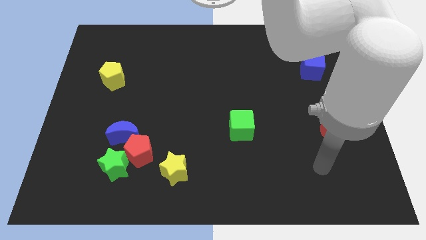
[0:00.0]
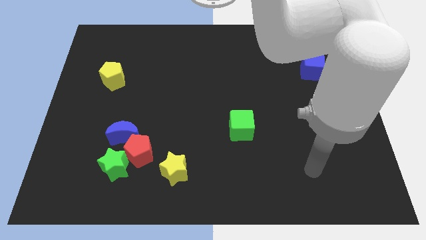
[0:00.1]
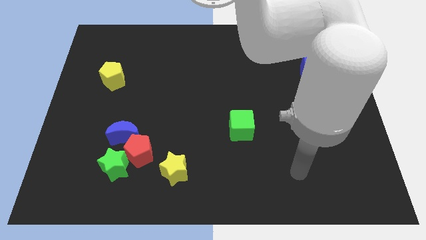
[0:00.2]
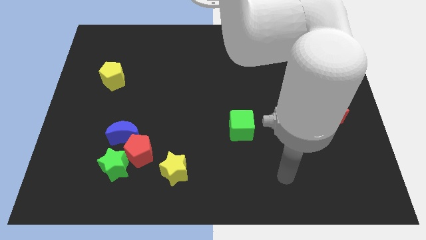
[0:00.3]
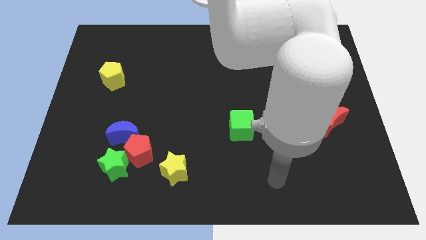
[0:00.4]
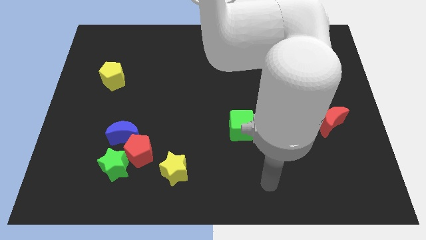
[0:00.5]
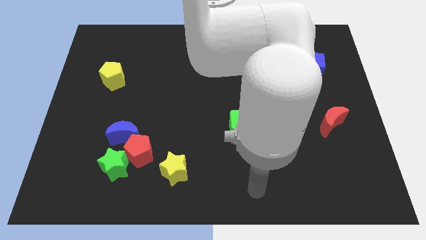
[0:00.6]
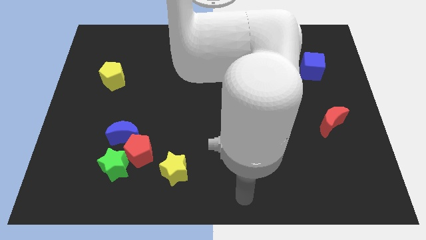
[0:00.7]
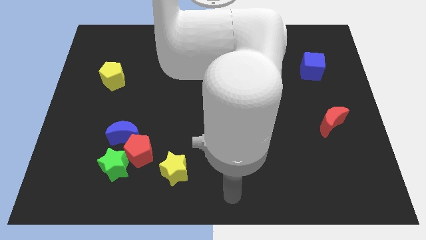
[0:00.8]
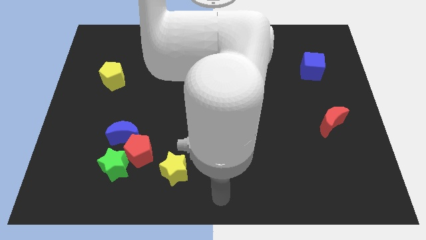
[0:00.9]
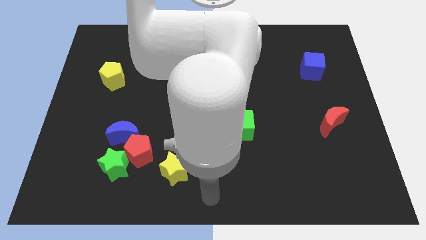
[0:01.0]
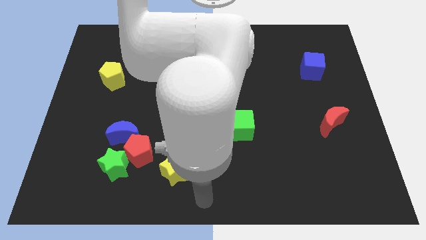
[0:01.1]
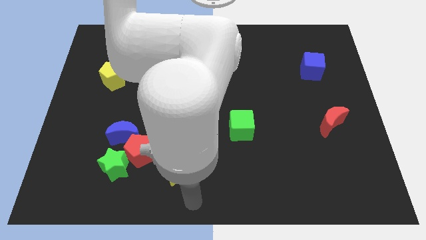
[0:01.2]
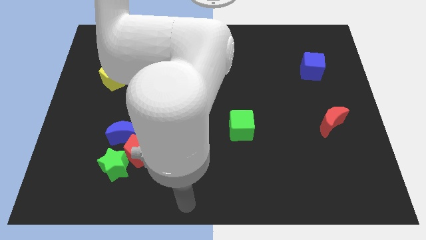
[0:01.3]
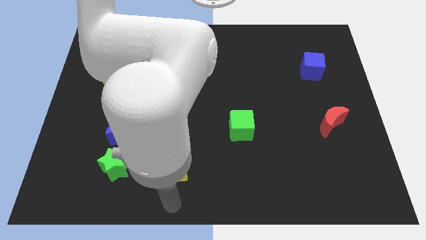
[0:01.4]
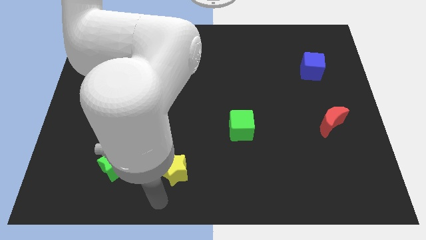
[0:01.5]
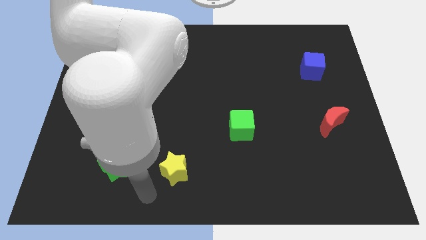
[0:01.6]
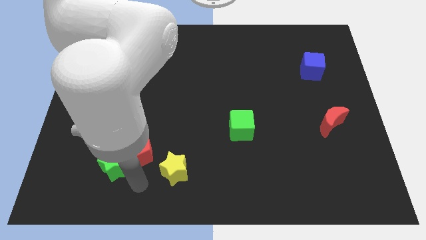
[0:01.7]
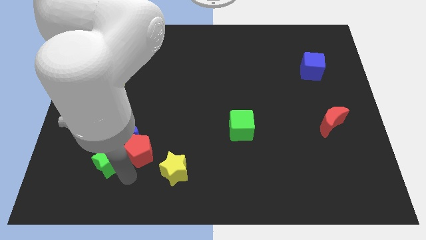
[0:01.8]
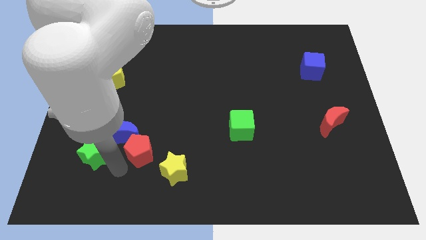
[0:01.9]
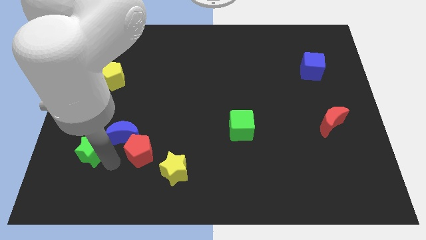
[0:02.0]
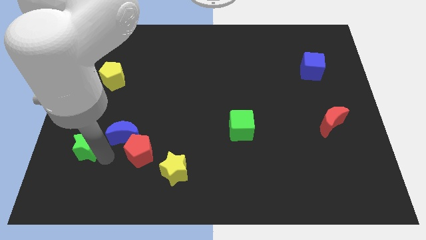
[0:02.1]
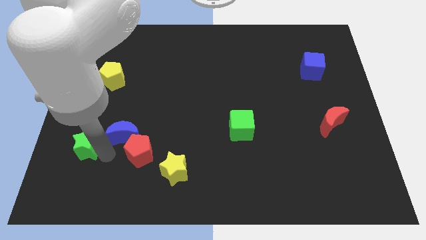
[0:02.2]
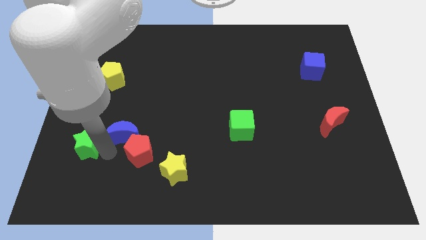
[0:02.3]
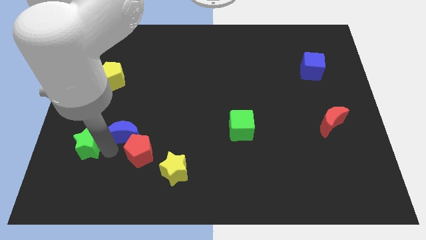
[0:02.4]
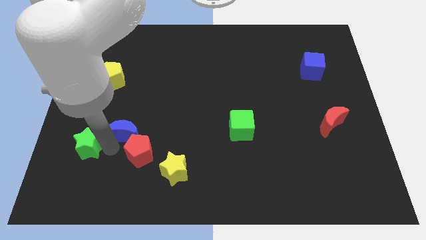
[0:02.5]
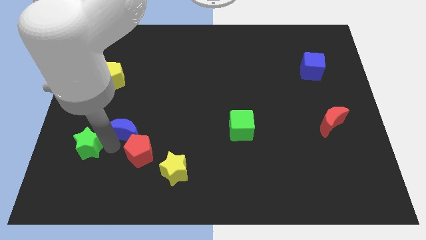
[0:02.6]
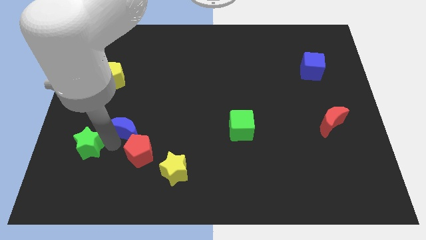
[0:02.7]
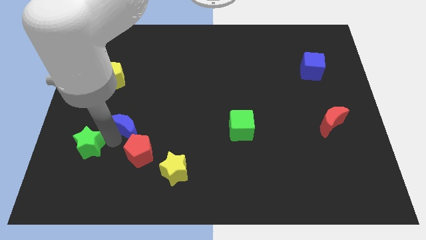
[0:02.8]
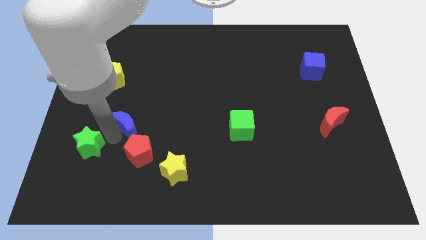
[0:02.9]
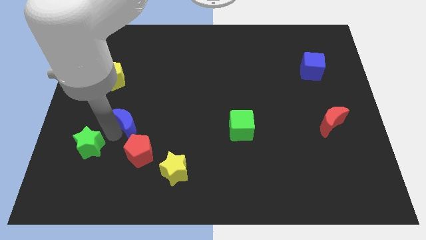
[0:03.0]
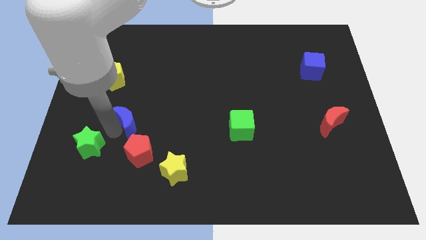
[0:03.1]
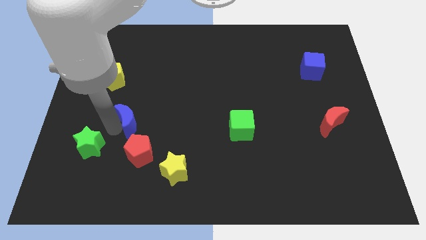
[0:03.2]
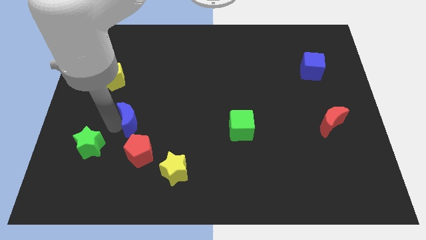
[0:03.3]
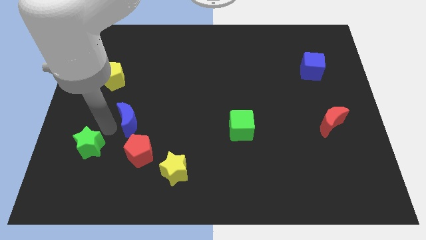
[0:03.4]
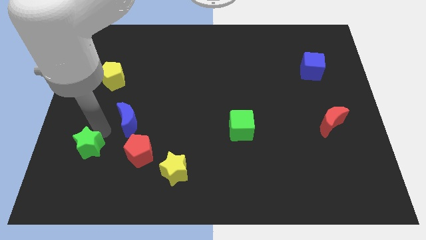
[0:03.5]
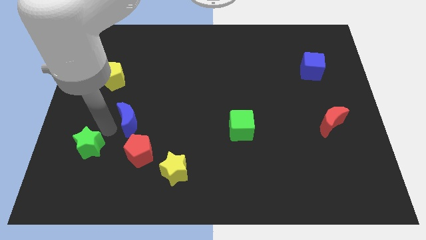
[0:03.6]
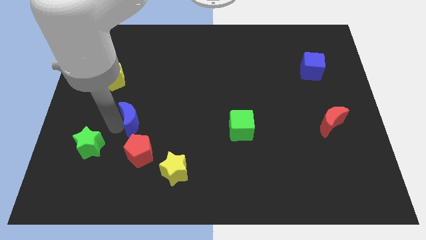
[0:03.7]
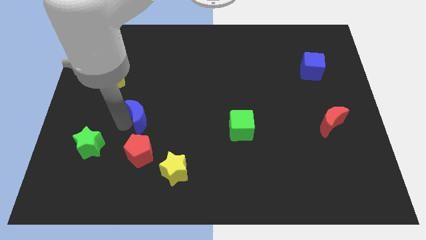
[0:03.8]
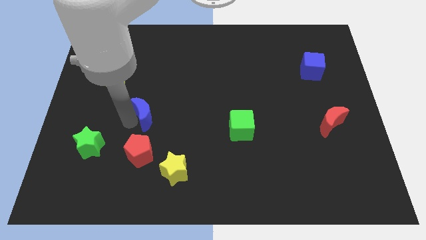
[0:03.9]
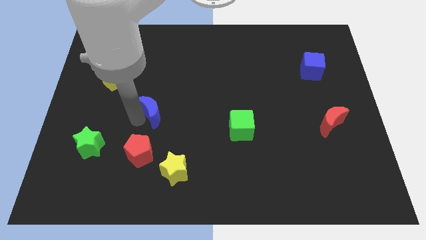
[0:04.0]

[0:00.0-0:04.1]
slide the blue moon upwards and to the right diagonally a little bit

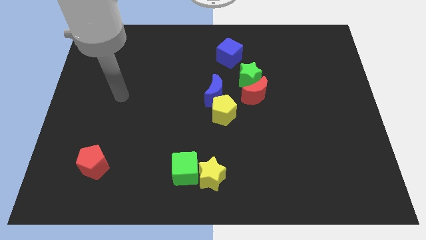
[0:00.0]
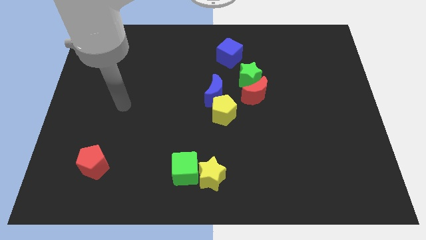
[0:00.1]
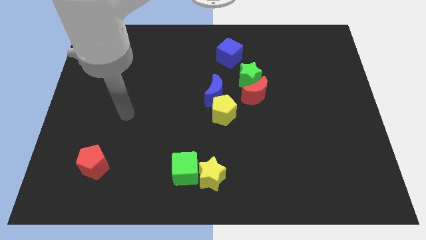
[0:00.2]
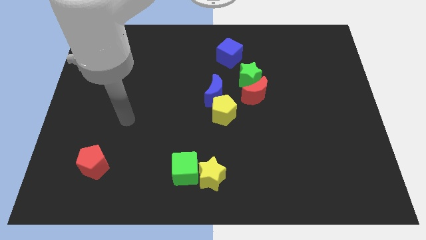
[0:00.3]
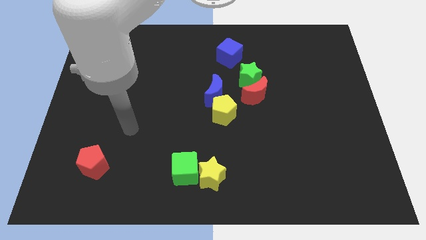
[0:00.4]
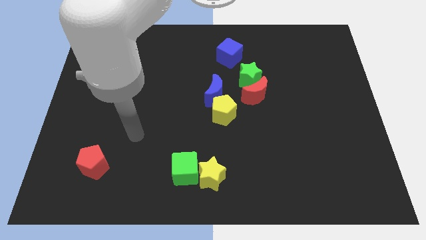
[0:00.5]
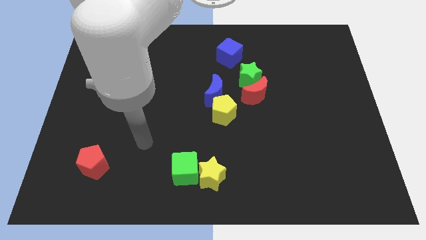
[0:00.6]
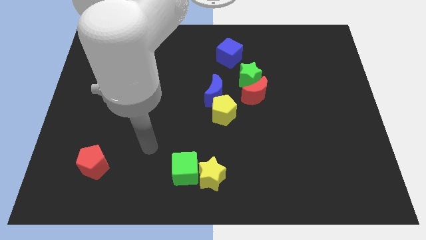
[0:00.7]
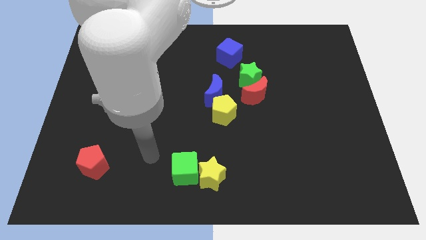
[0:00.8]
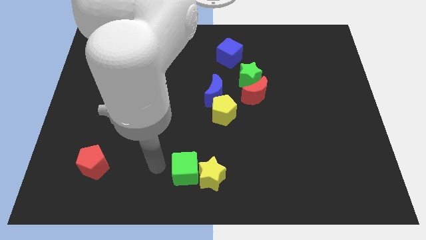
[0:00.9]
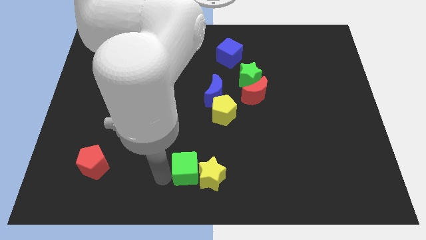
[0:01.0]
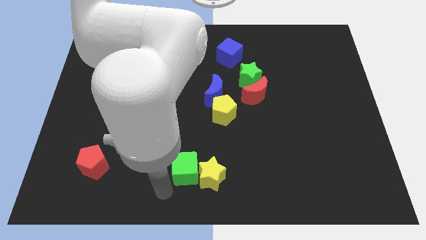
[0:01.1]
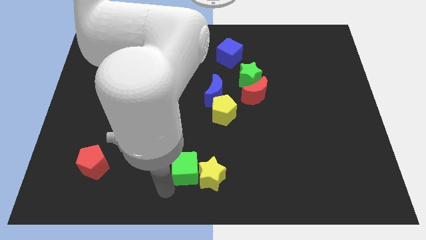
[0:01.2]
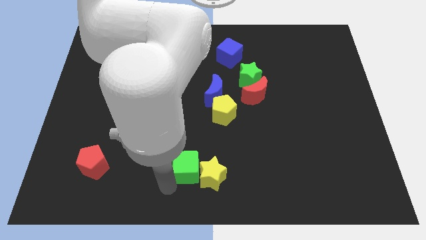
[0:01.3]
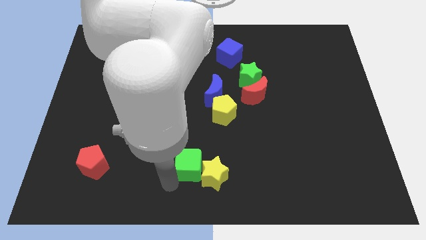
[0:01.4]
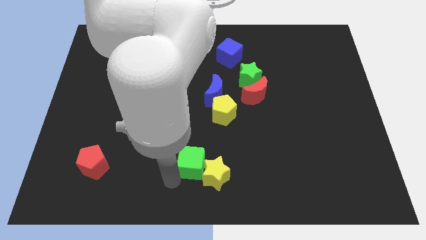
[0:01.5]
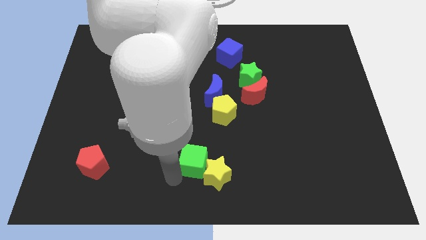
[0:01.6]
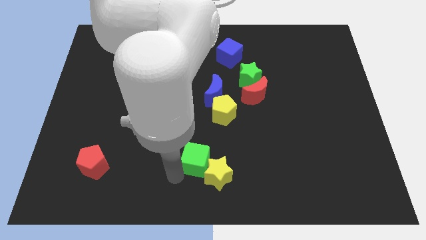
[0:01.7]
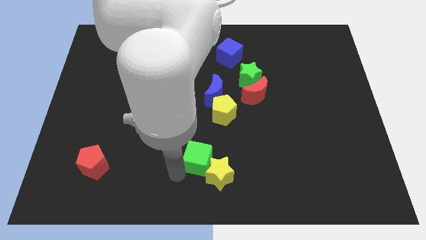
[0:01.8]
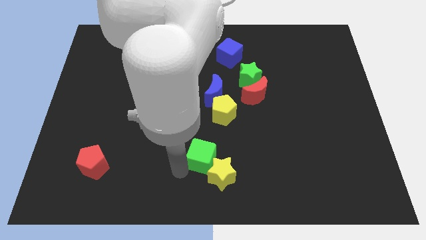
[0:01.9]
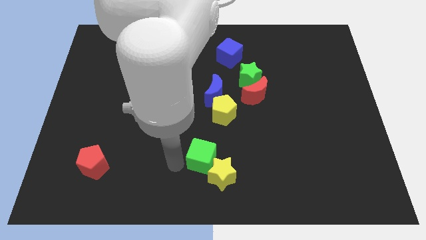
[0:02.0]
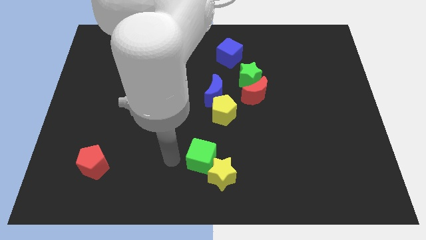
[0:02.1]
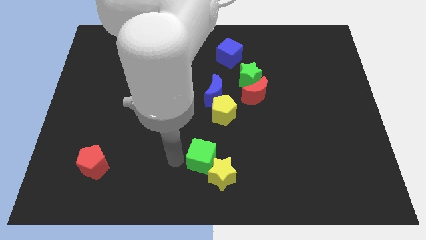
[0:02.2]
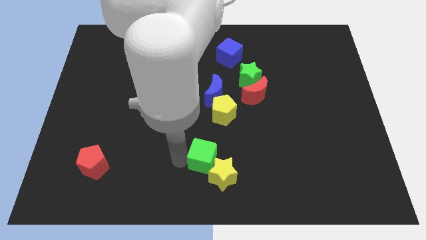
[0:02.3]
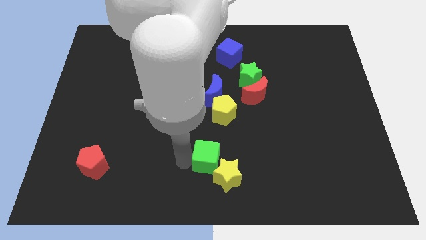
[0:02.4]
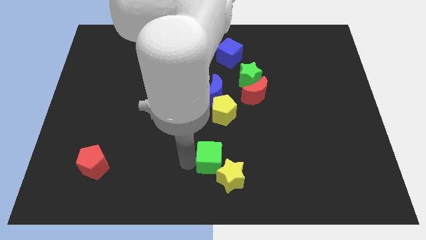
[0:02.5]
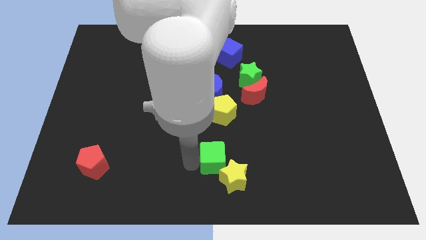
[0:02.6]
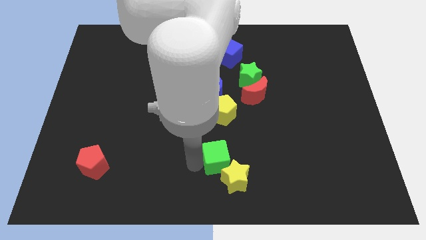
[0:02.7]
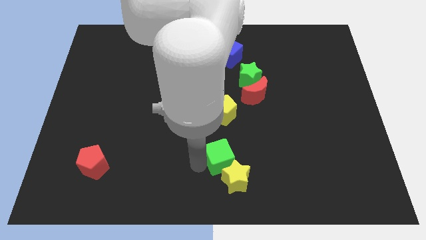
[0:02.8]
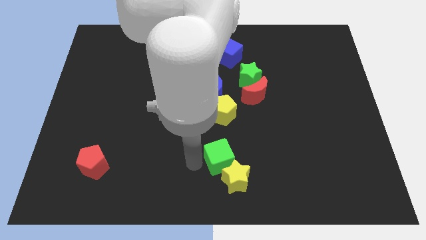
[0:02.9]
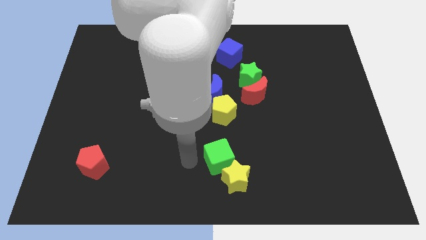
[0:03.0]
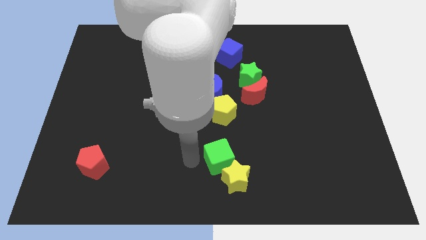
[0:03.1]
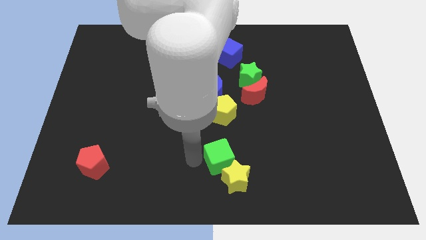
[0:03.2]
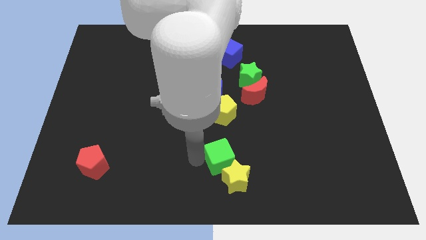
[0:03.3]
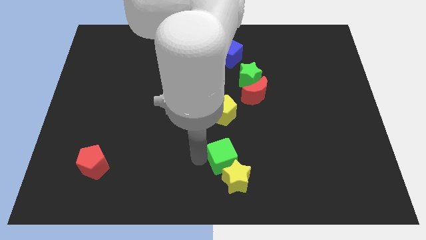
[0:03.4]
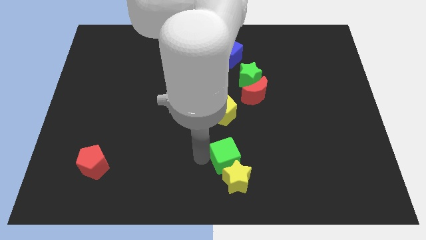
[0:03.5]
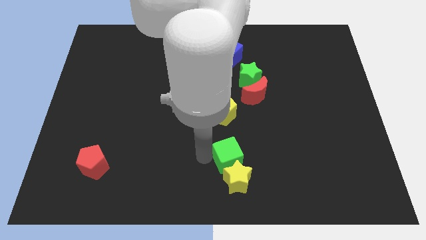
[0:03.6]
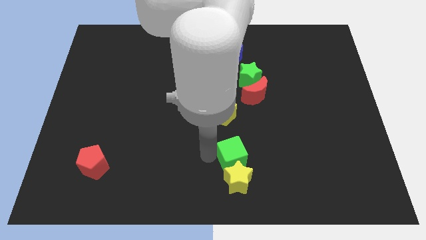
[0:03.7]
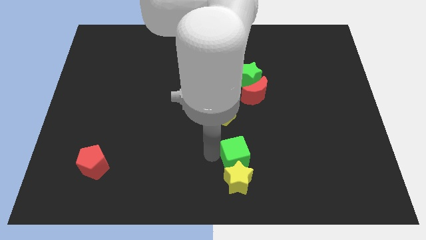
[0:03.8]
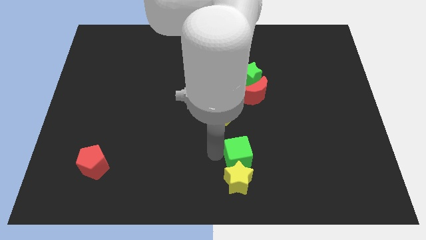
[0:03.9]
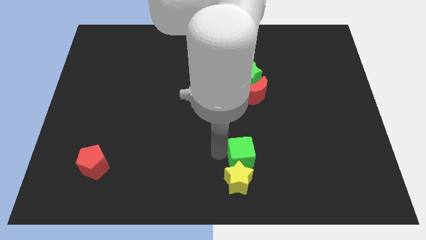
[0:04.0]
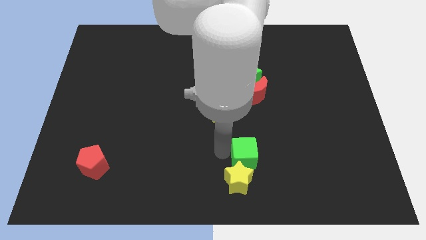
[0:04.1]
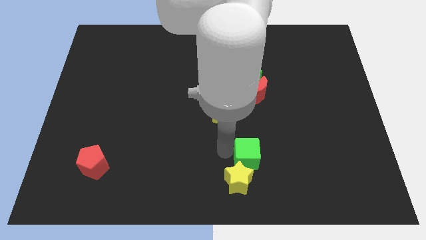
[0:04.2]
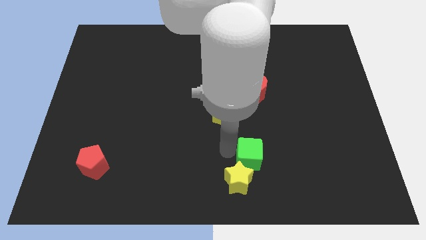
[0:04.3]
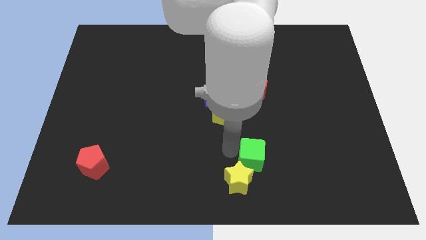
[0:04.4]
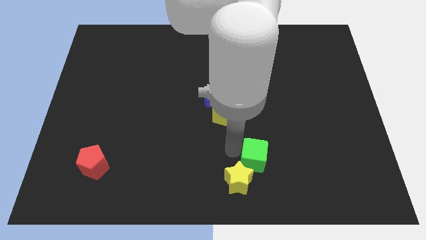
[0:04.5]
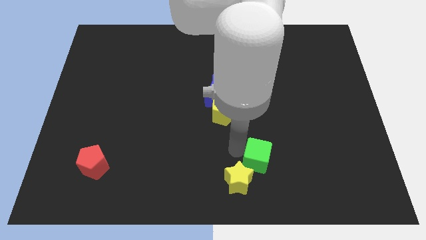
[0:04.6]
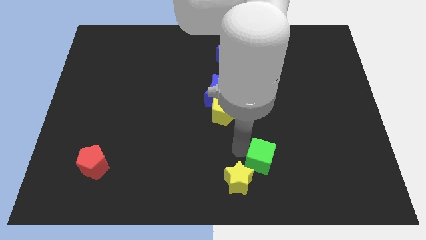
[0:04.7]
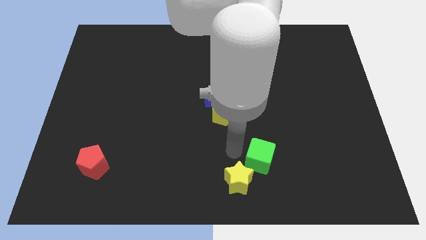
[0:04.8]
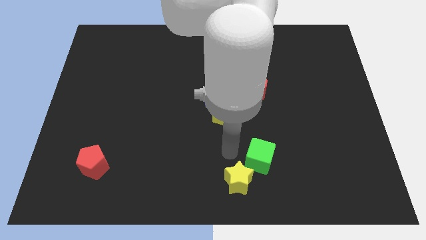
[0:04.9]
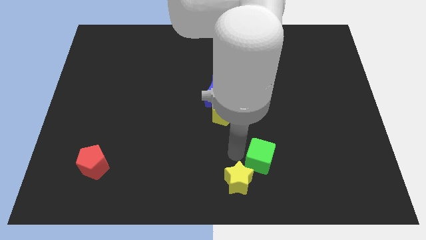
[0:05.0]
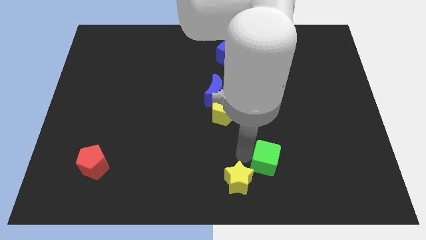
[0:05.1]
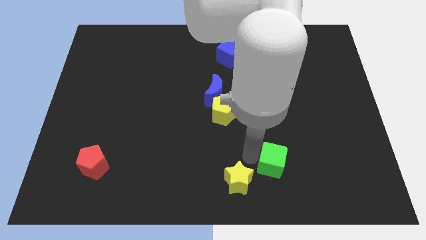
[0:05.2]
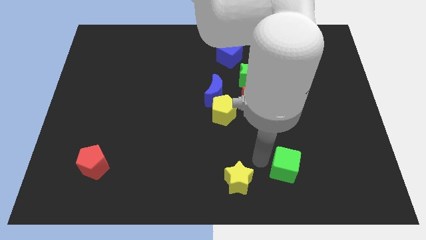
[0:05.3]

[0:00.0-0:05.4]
move the green cube right
